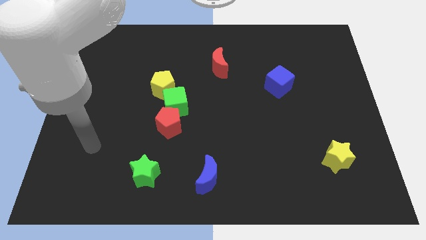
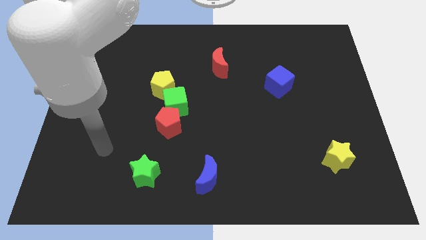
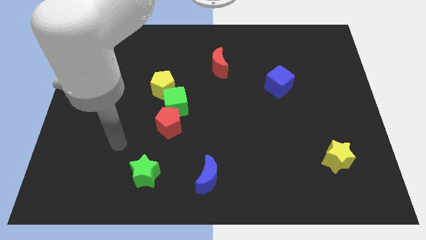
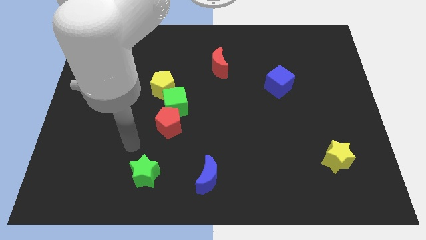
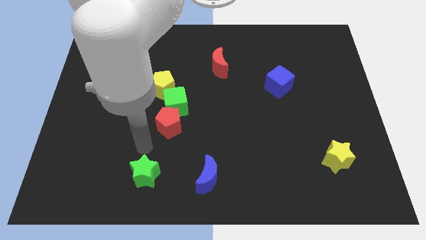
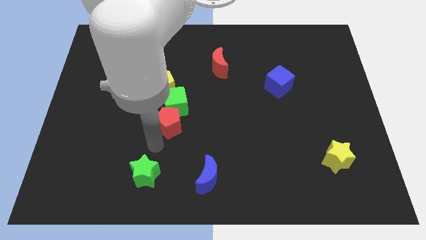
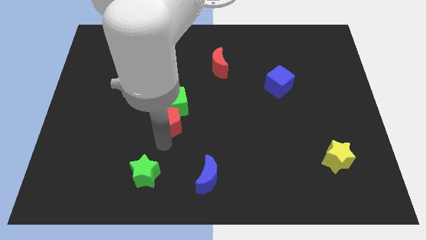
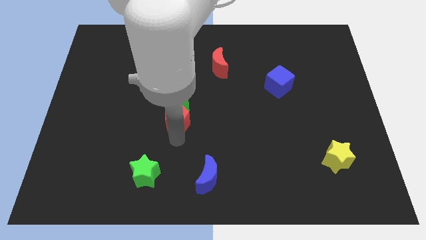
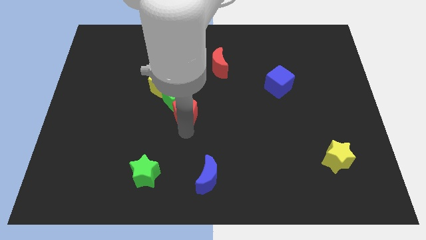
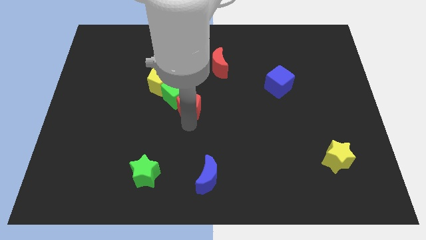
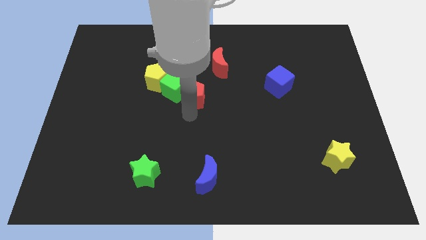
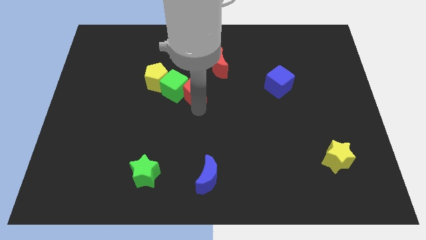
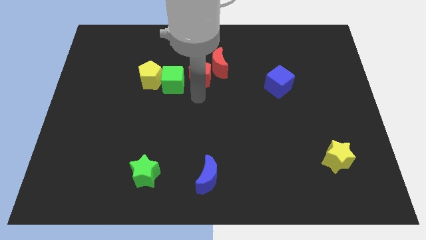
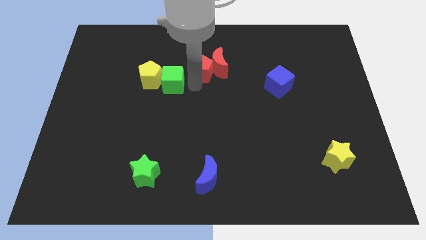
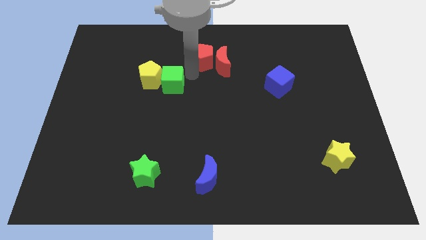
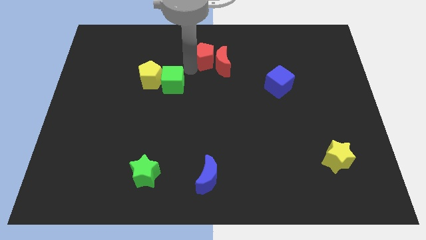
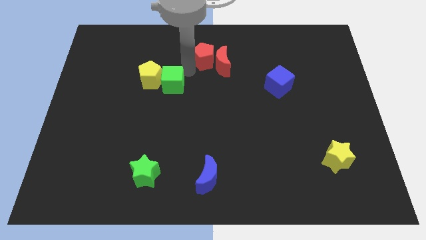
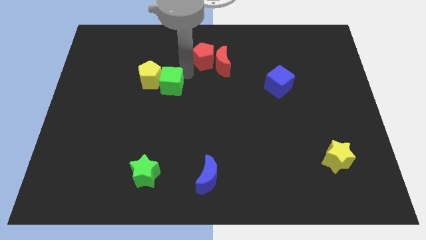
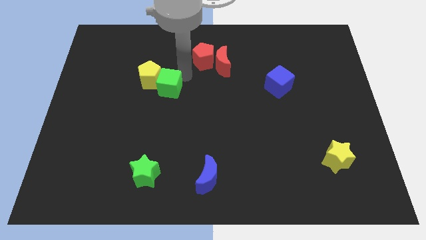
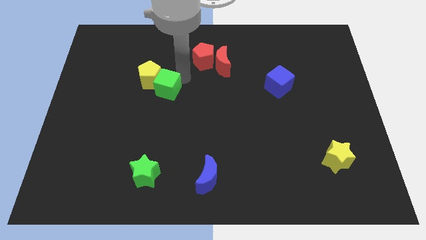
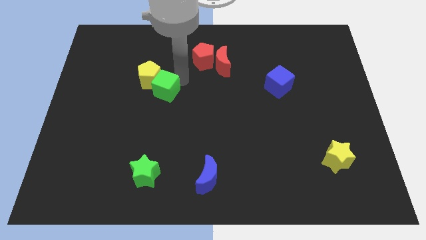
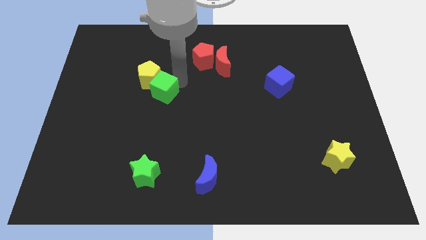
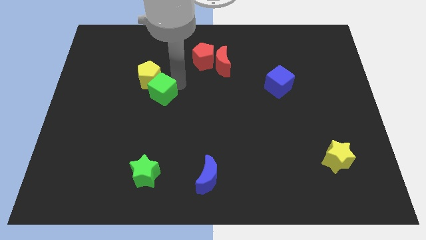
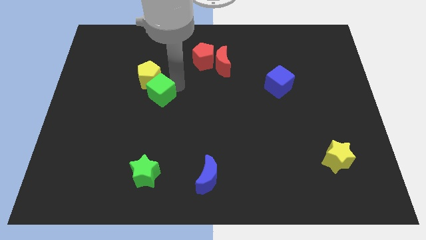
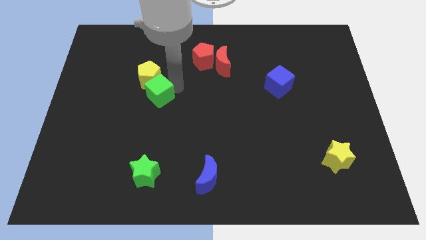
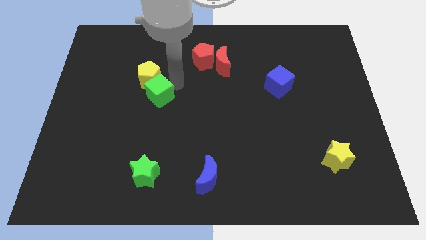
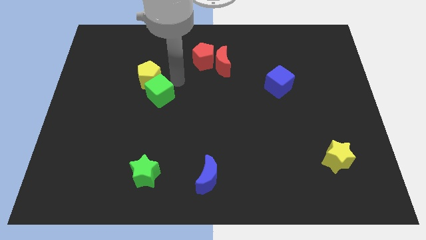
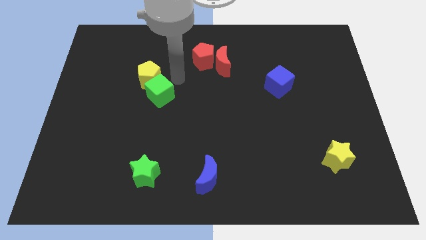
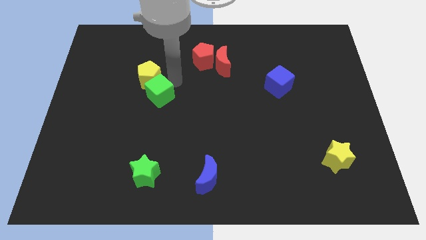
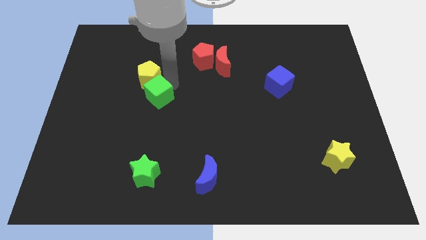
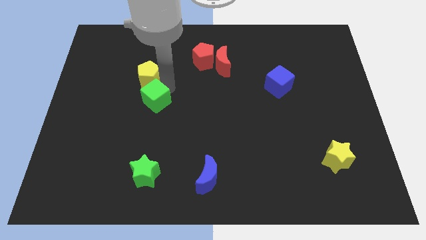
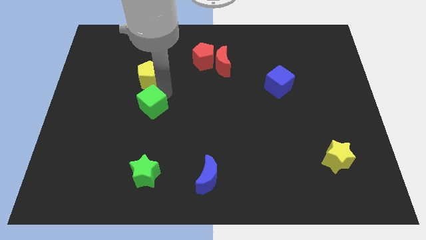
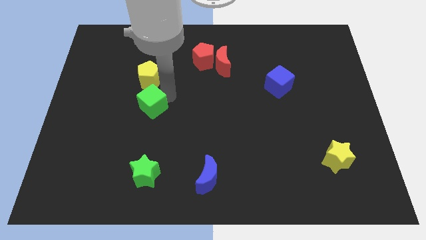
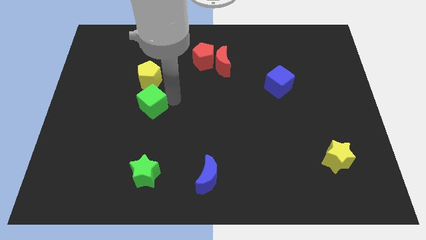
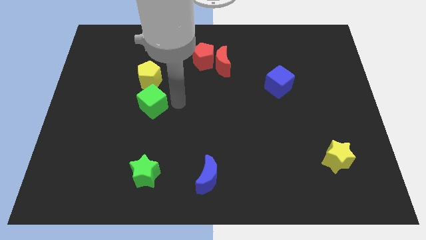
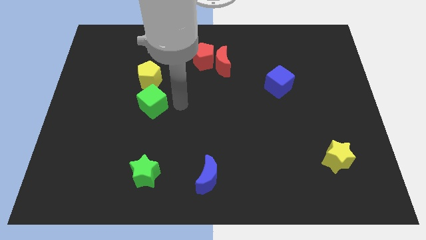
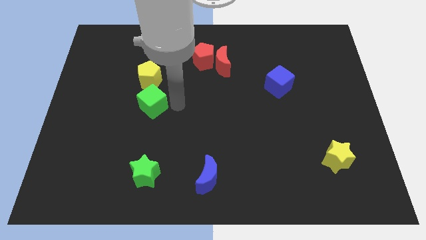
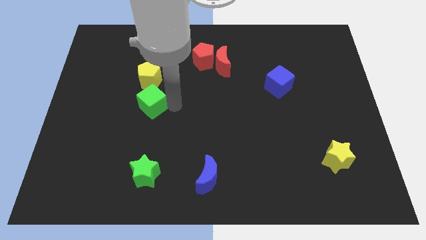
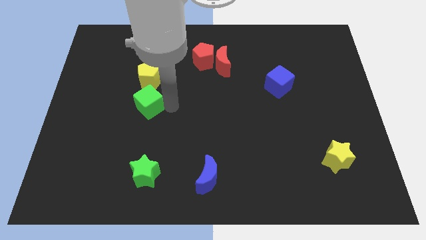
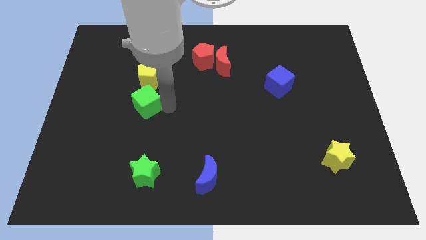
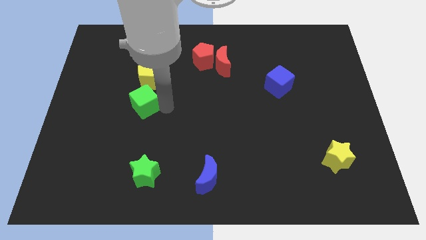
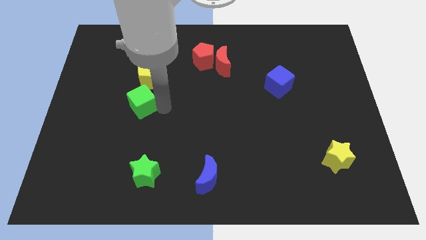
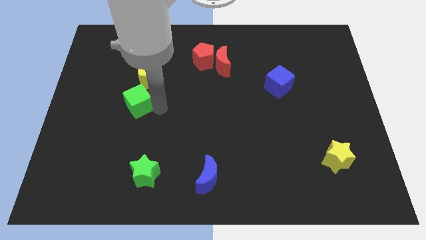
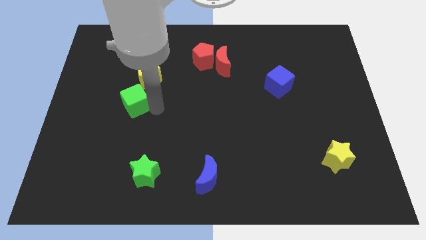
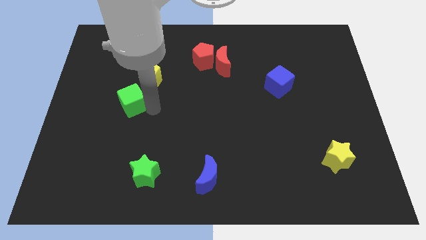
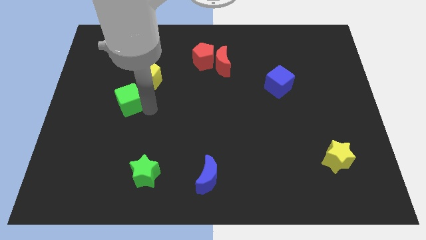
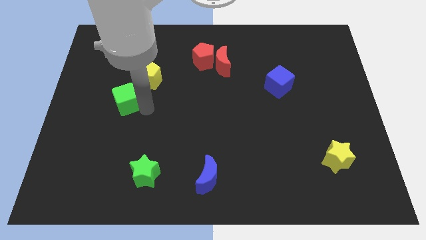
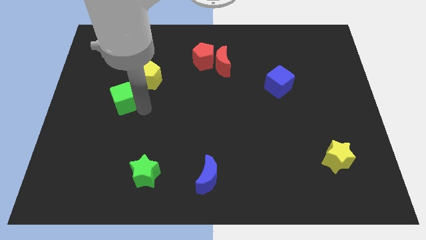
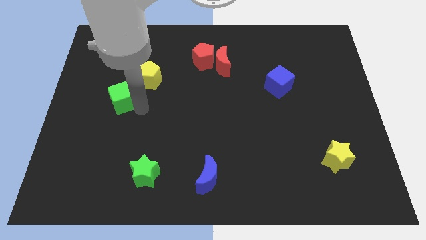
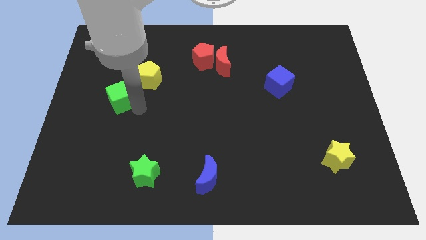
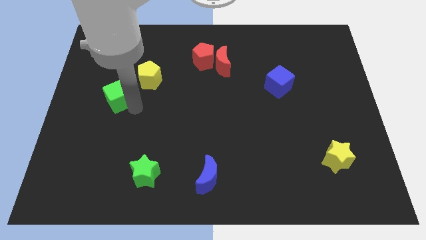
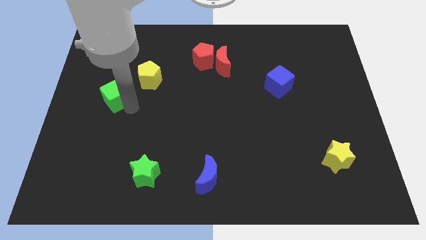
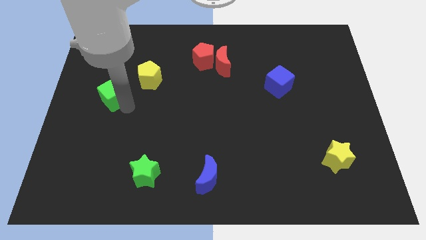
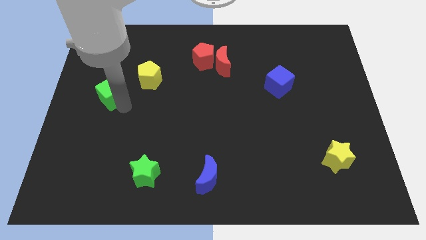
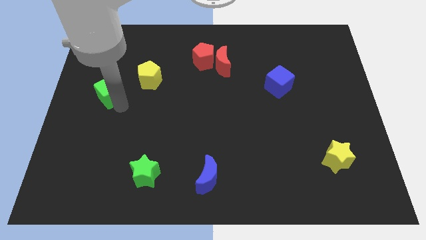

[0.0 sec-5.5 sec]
move the green cube to the left side of the board

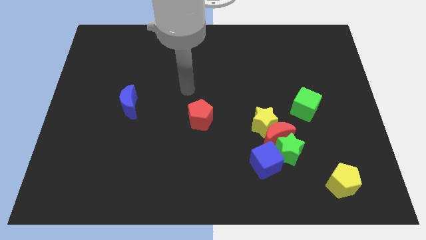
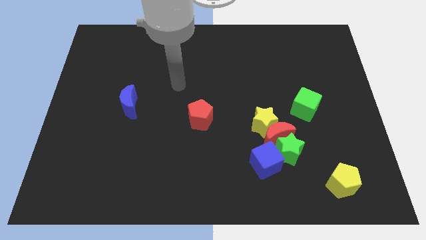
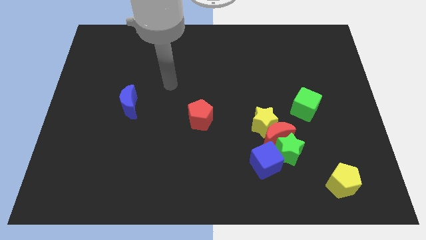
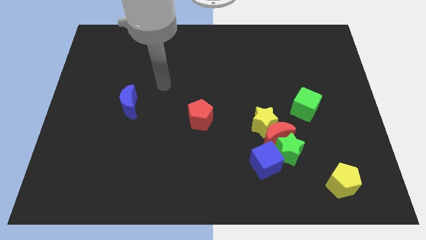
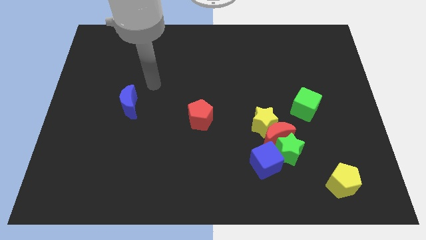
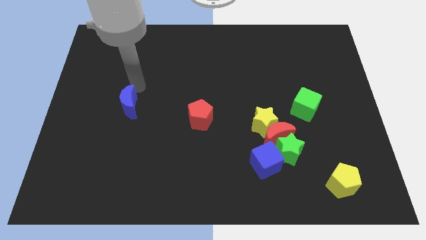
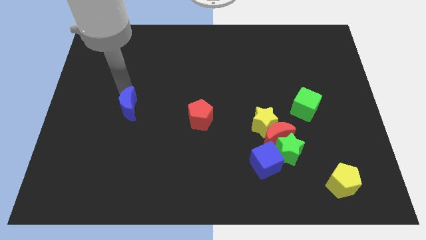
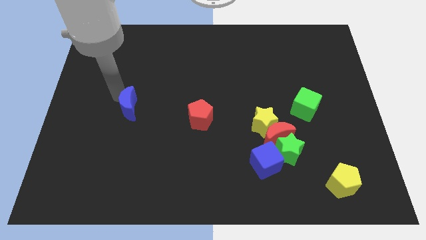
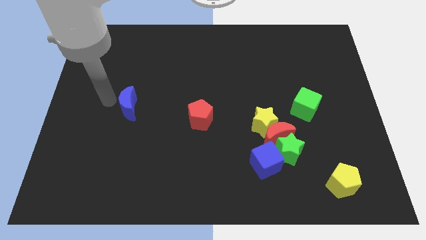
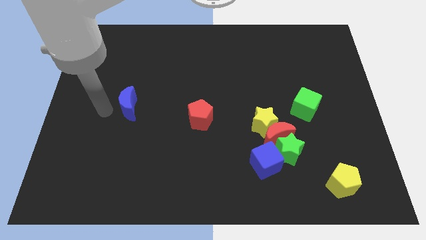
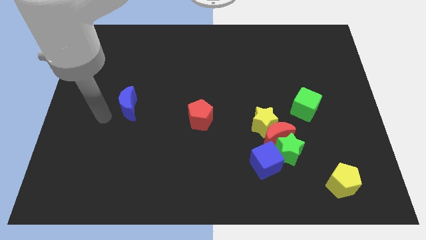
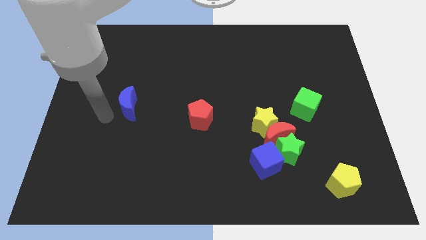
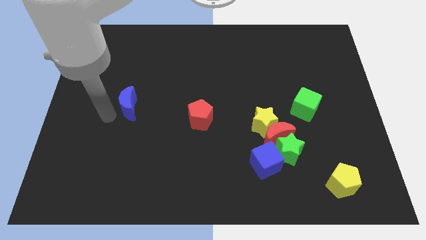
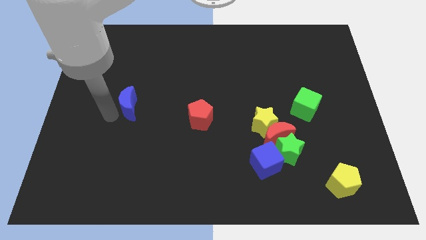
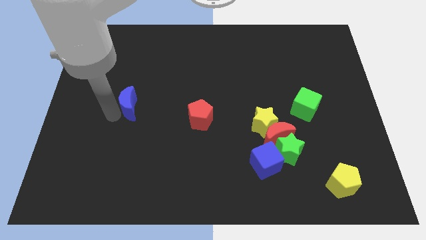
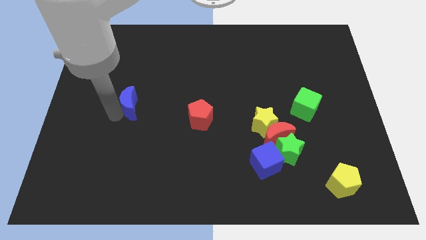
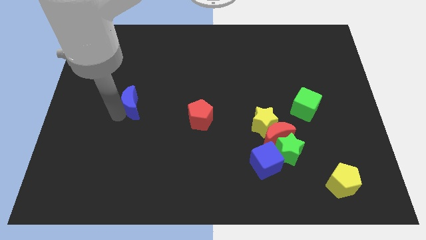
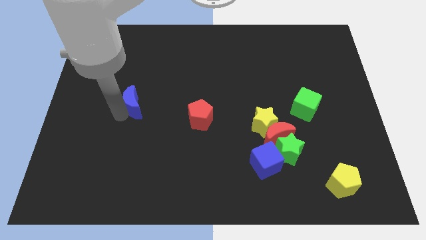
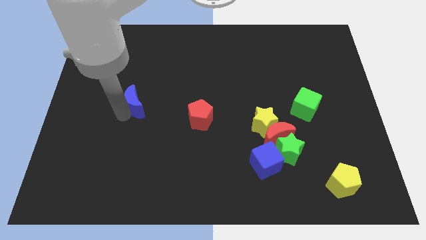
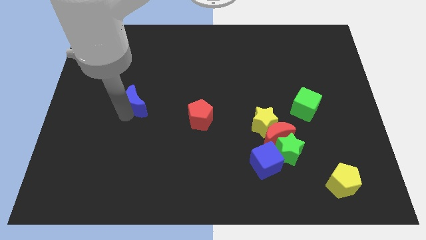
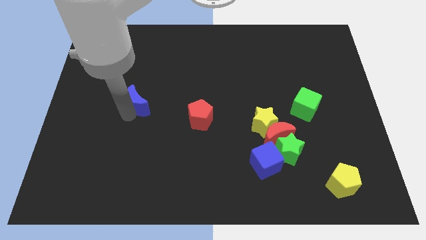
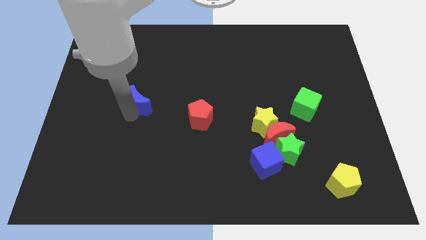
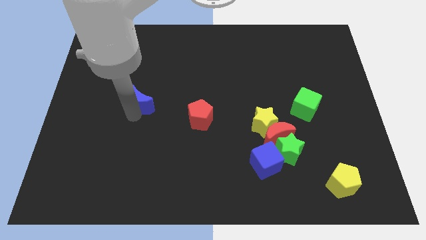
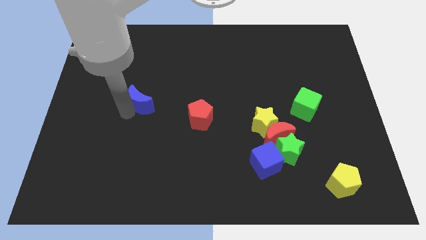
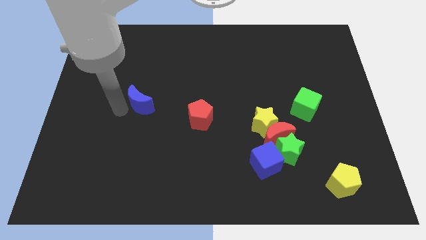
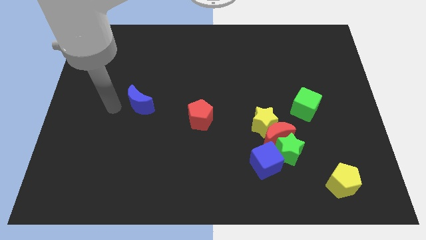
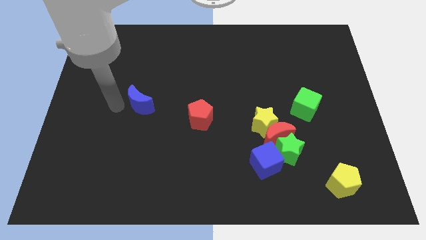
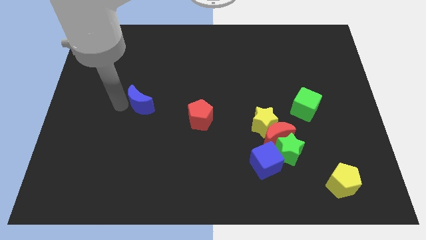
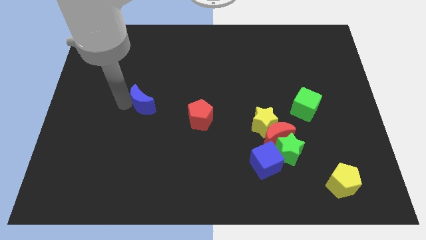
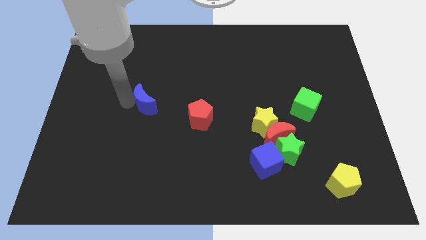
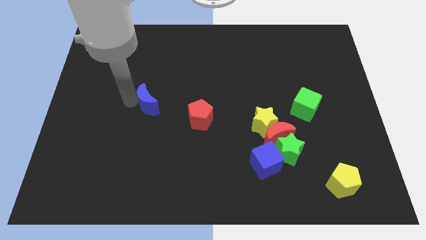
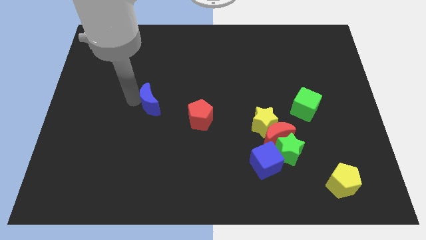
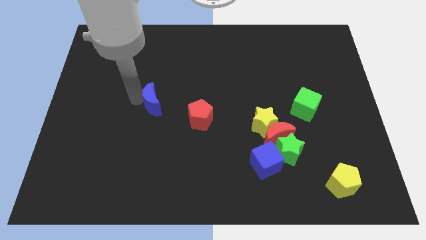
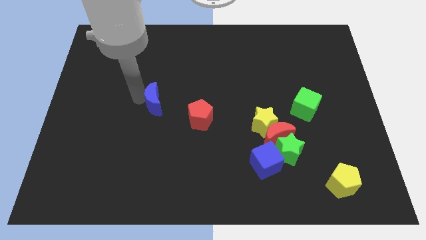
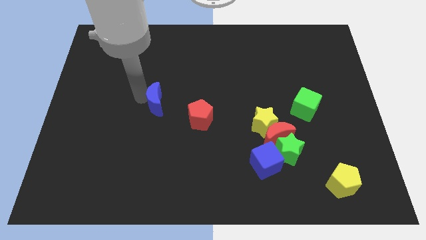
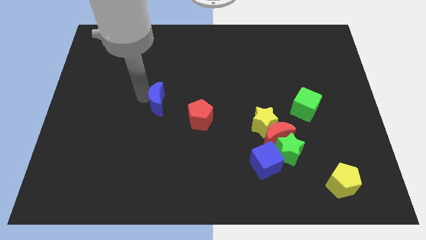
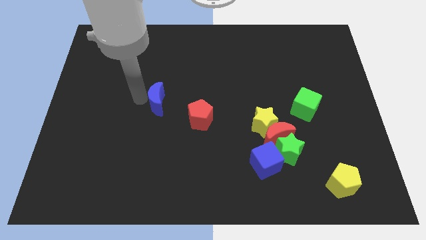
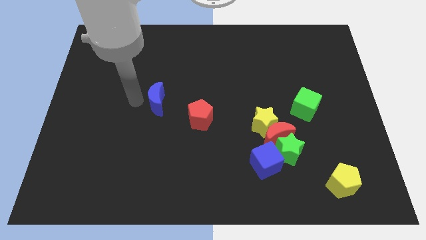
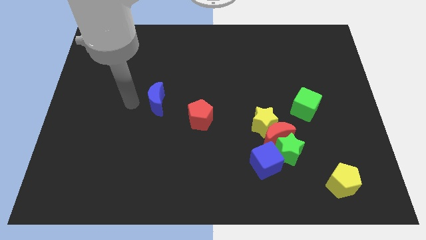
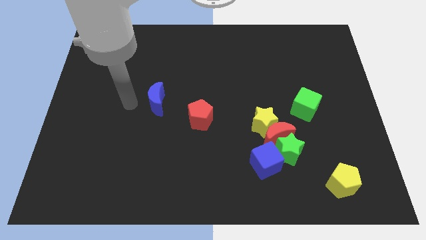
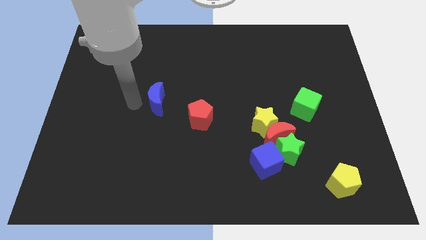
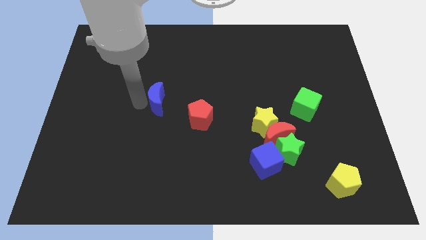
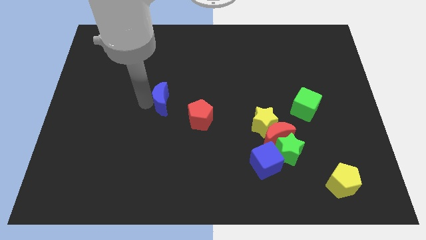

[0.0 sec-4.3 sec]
push the blue moon to the middle of the board
